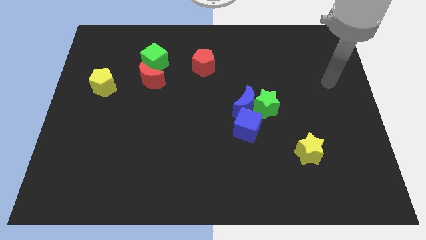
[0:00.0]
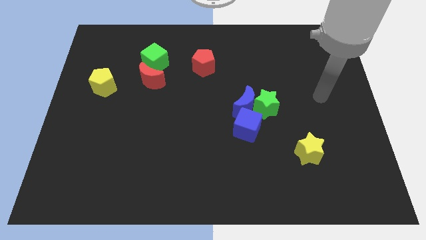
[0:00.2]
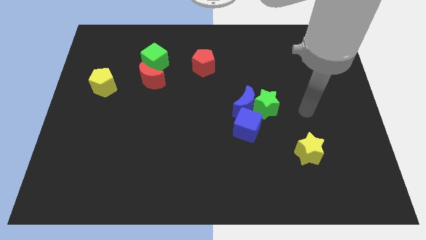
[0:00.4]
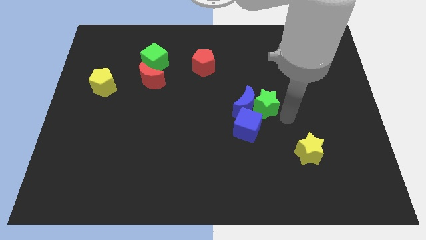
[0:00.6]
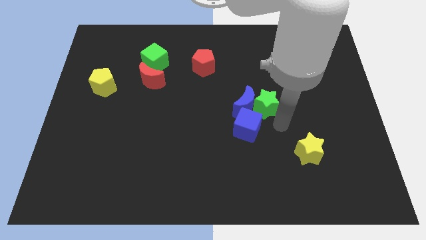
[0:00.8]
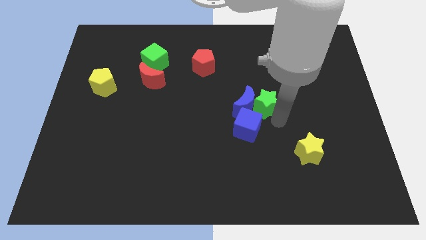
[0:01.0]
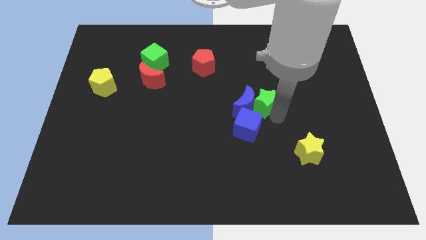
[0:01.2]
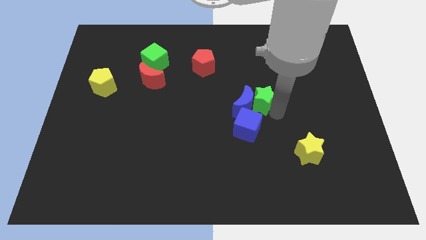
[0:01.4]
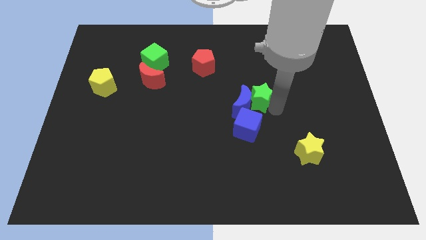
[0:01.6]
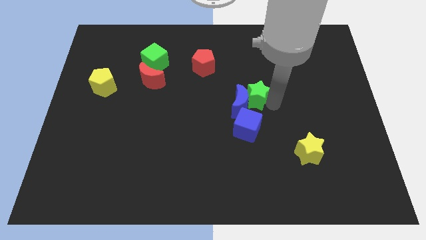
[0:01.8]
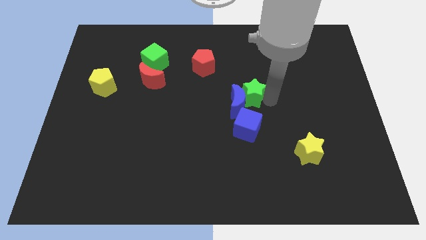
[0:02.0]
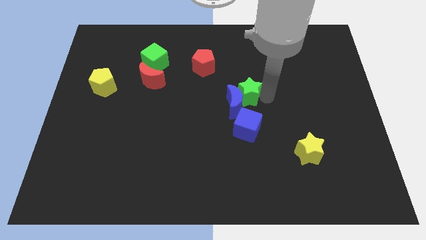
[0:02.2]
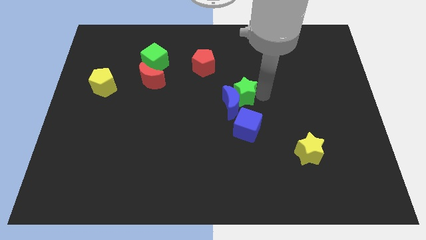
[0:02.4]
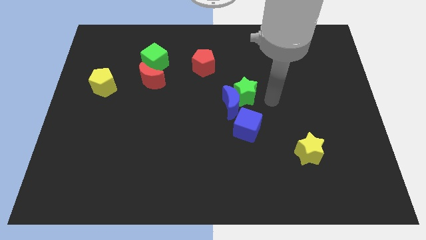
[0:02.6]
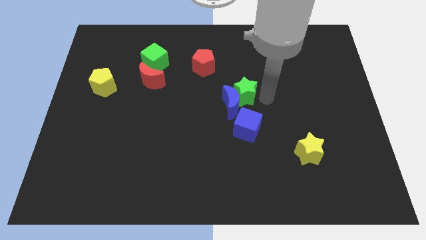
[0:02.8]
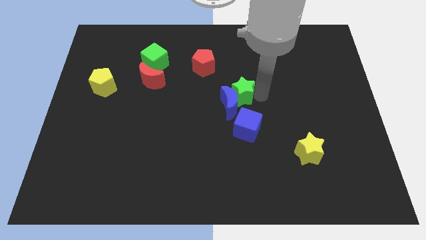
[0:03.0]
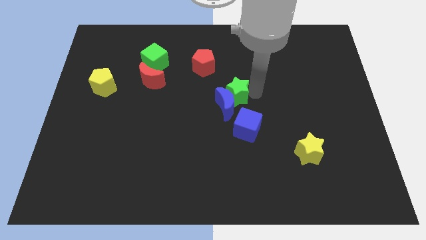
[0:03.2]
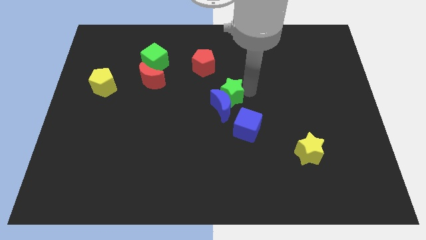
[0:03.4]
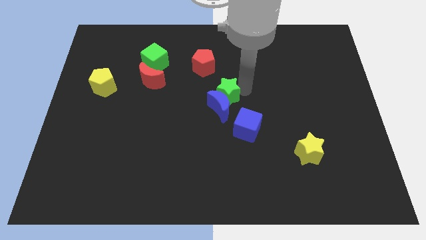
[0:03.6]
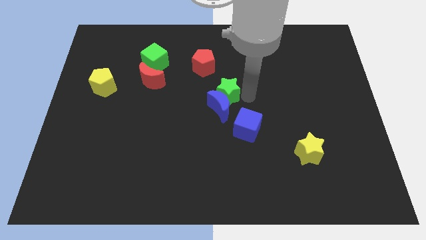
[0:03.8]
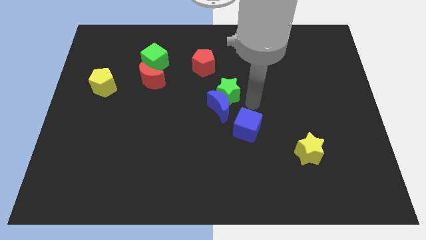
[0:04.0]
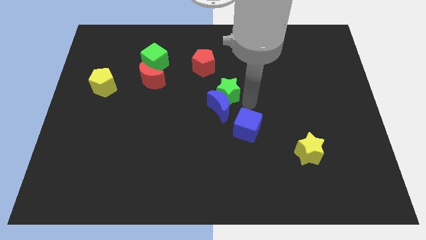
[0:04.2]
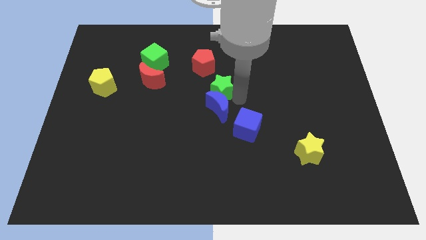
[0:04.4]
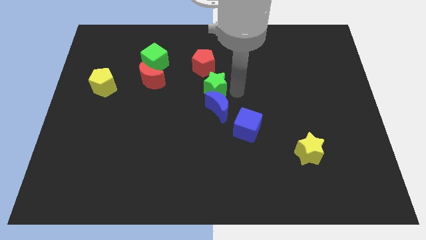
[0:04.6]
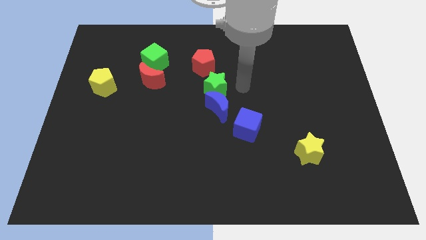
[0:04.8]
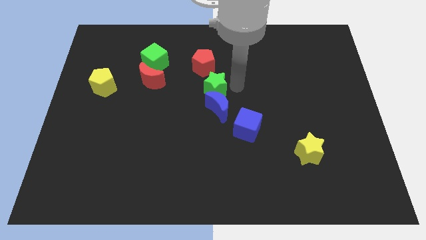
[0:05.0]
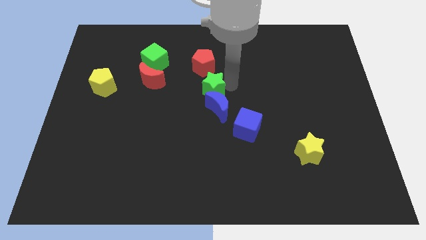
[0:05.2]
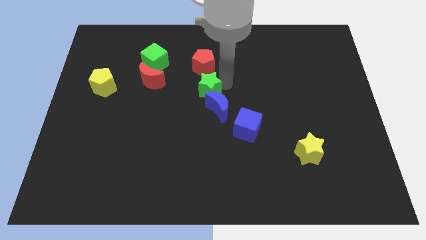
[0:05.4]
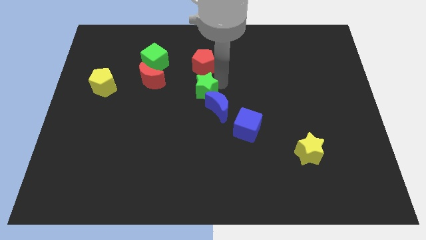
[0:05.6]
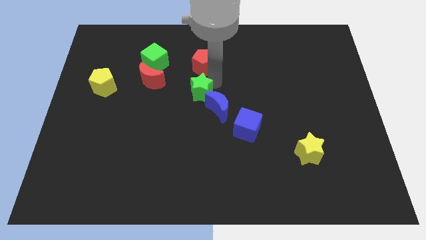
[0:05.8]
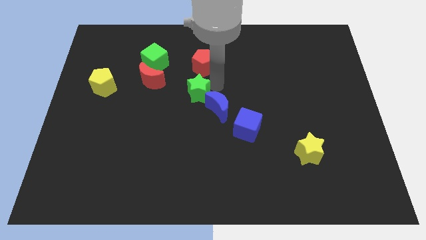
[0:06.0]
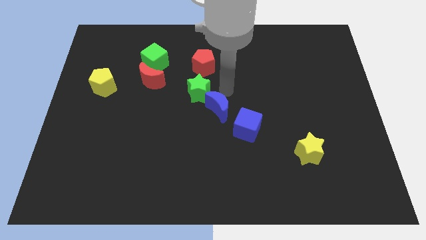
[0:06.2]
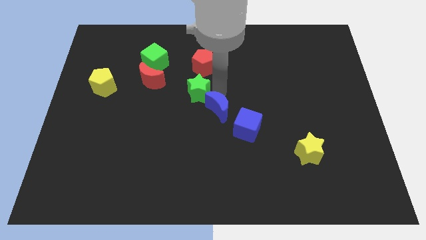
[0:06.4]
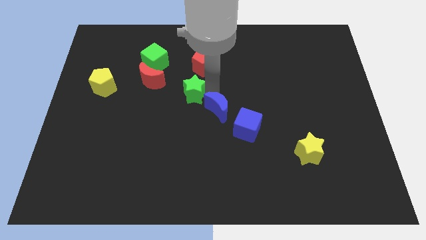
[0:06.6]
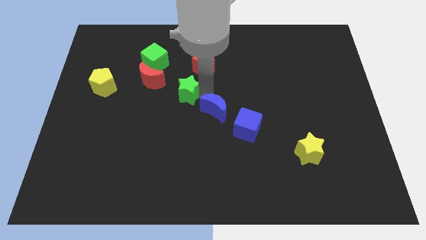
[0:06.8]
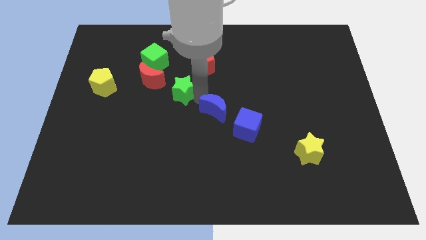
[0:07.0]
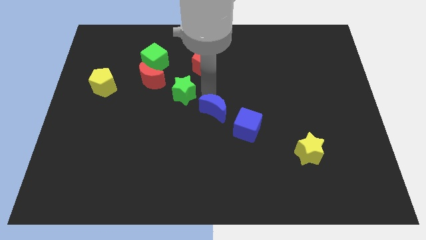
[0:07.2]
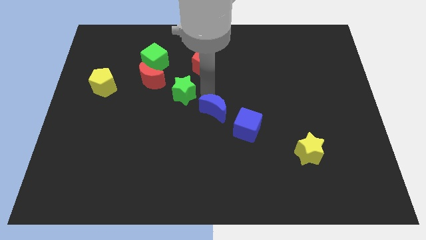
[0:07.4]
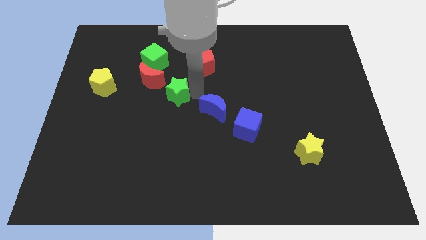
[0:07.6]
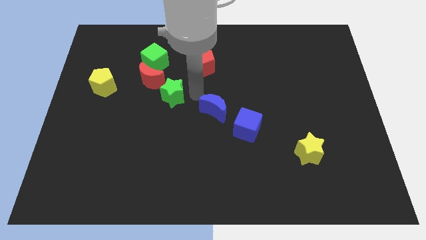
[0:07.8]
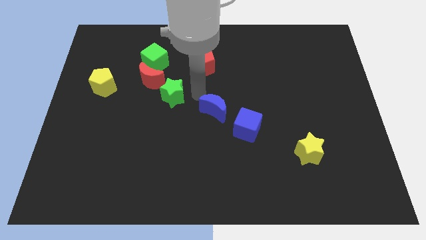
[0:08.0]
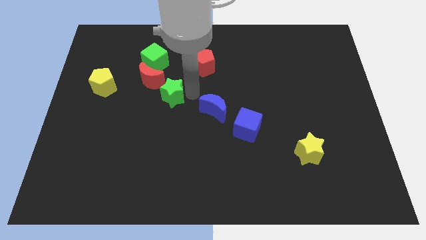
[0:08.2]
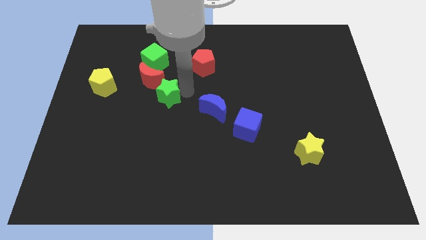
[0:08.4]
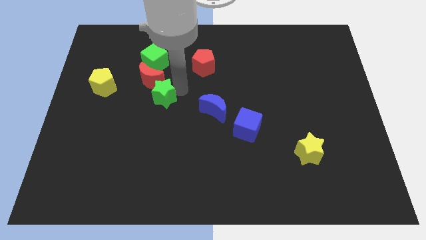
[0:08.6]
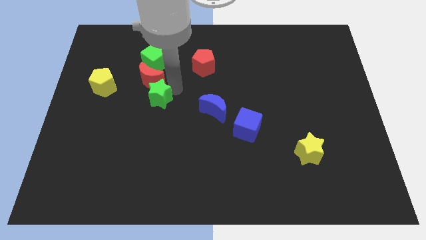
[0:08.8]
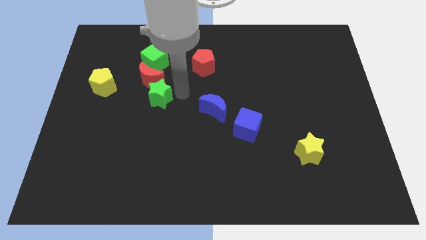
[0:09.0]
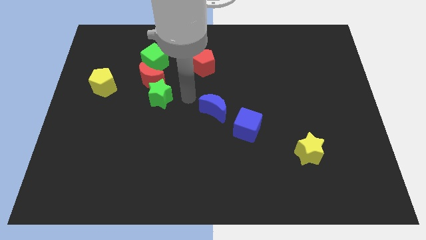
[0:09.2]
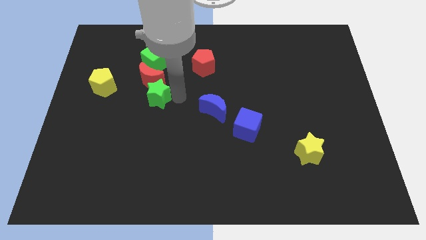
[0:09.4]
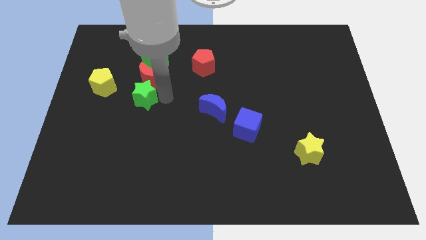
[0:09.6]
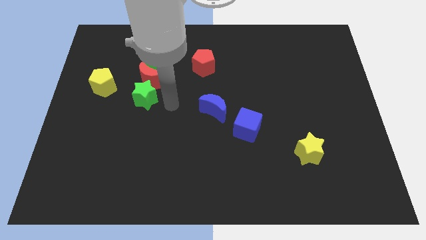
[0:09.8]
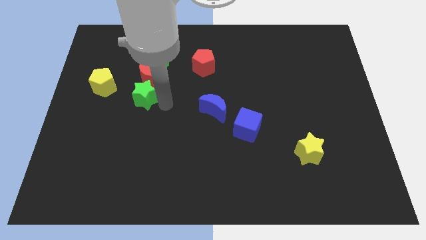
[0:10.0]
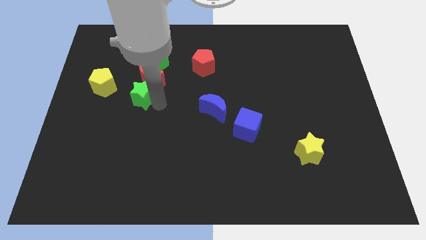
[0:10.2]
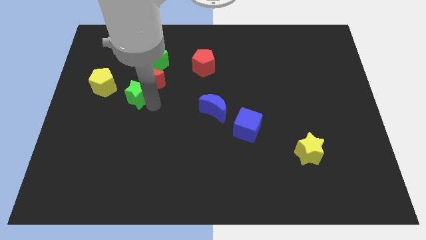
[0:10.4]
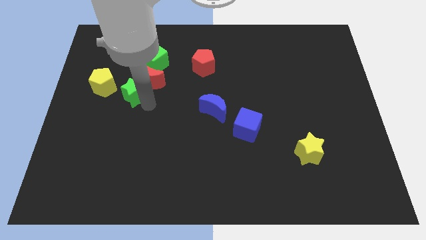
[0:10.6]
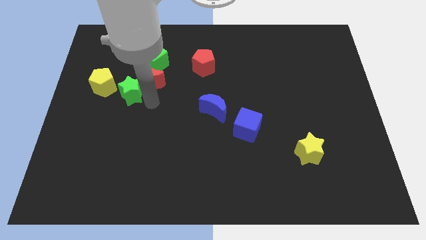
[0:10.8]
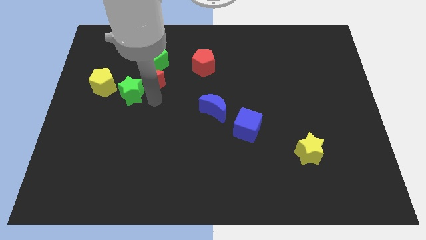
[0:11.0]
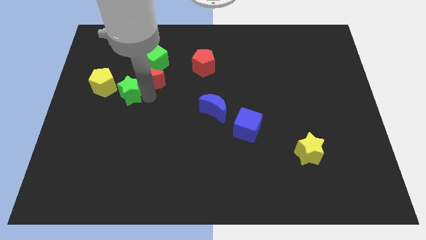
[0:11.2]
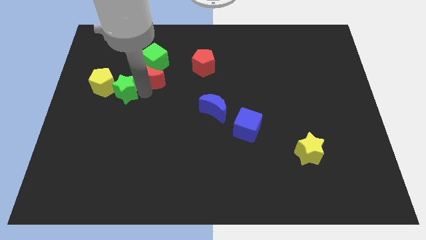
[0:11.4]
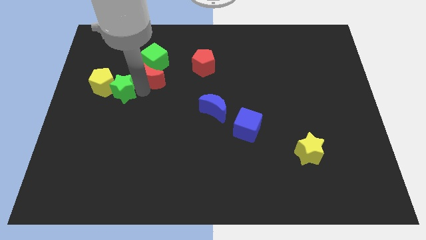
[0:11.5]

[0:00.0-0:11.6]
slide the green star next to the yellow pentagon

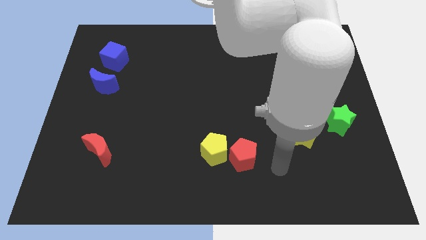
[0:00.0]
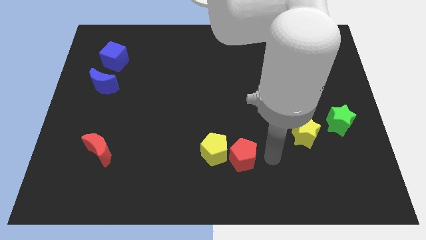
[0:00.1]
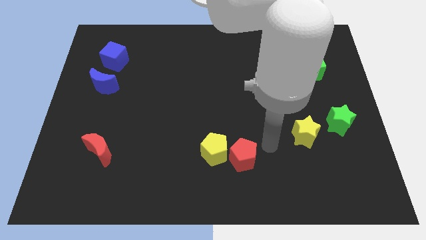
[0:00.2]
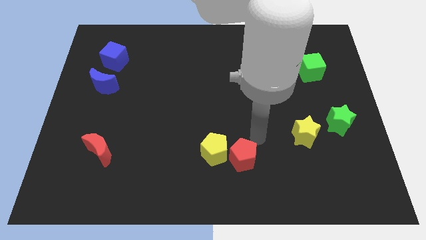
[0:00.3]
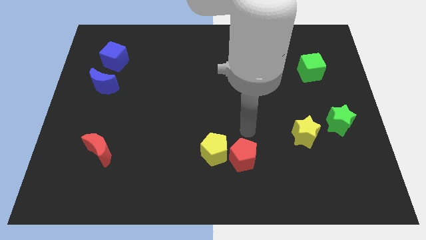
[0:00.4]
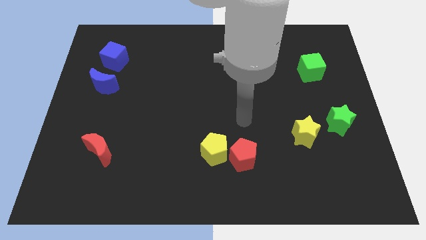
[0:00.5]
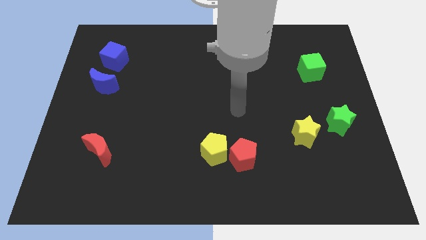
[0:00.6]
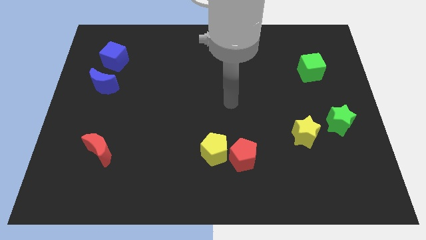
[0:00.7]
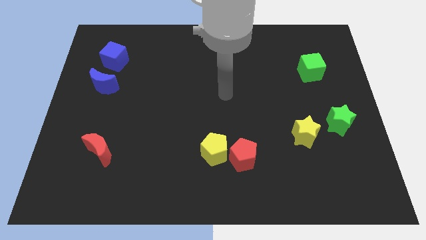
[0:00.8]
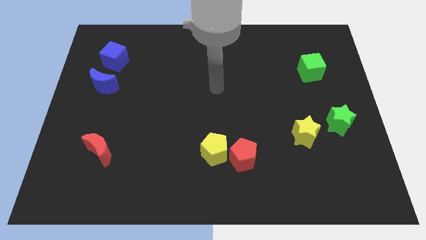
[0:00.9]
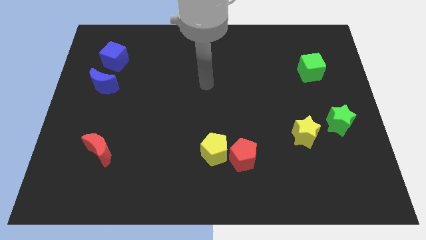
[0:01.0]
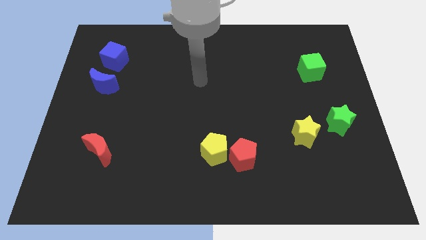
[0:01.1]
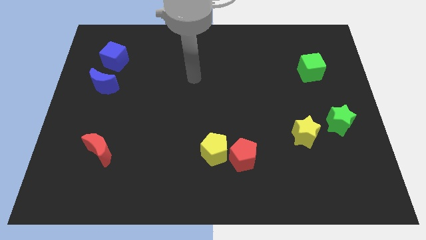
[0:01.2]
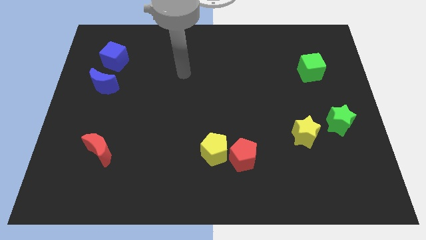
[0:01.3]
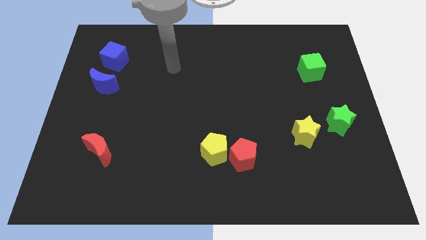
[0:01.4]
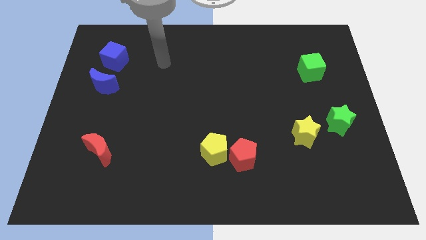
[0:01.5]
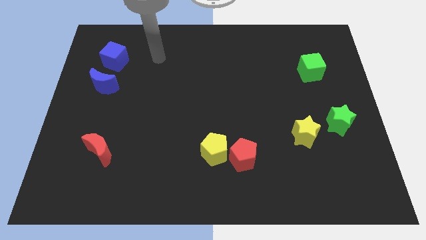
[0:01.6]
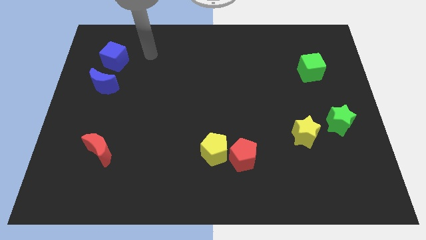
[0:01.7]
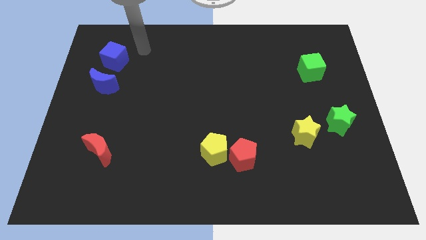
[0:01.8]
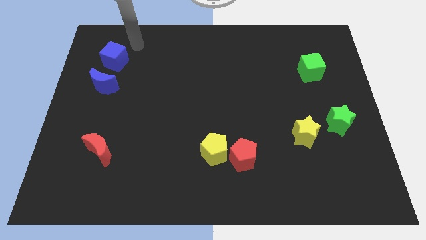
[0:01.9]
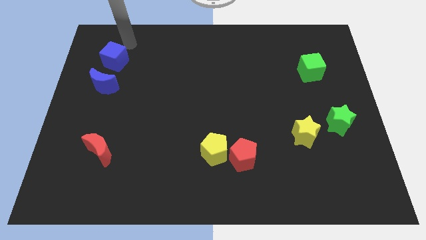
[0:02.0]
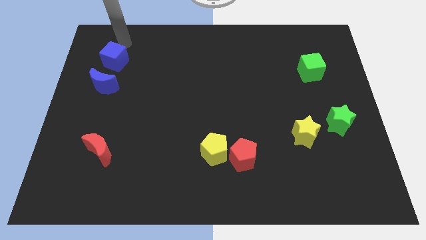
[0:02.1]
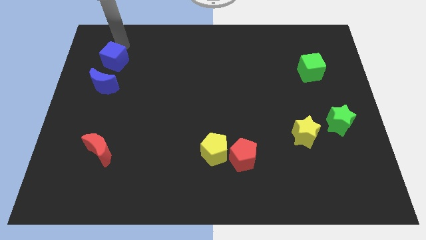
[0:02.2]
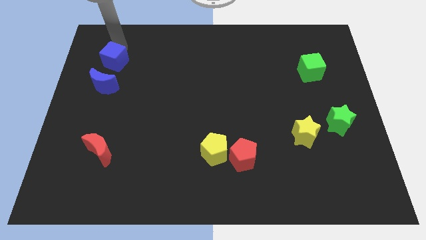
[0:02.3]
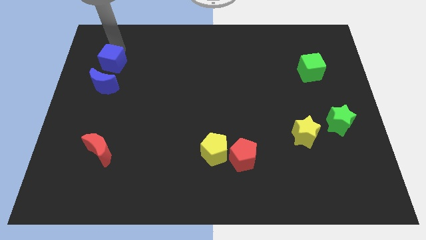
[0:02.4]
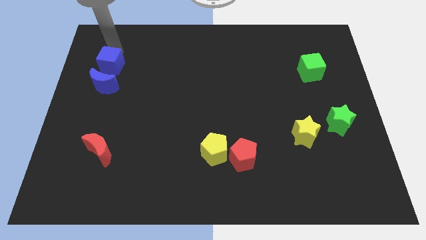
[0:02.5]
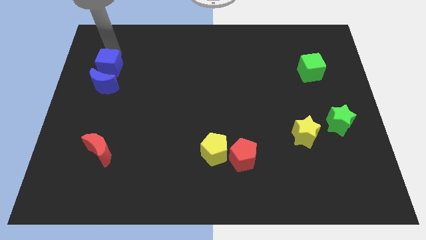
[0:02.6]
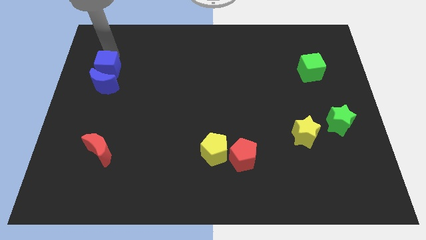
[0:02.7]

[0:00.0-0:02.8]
put the blue cube towards the blue moon
